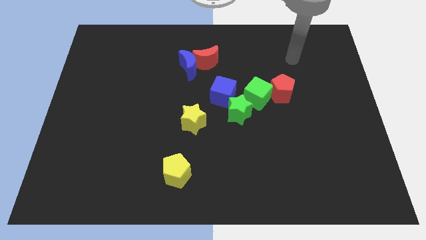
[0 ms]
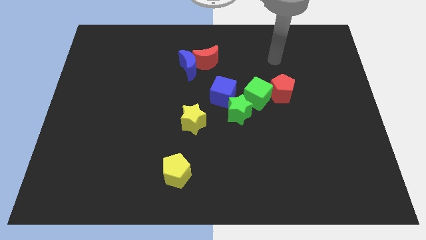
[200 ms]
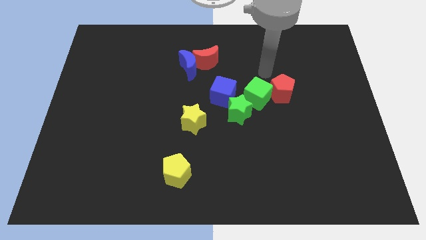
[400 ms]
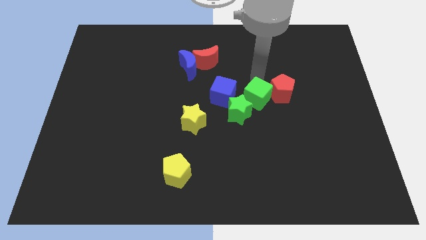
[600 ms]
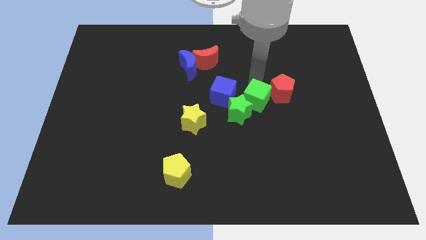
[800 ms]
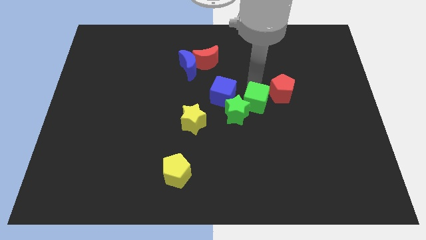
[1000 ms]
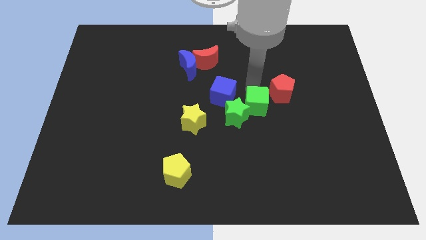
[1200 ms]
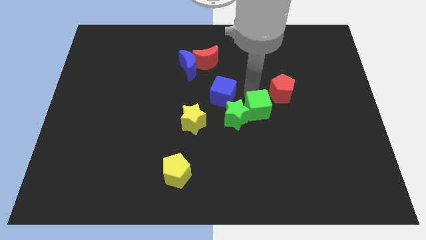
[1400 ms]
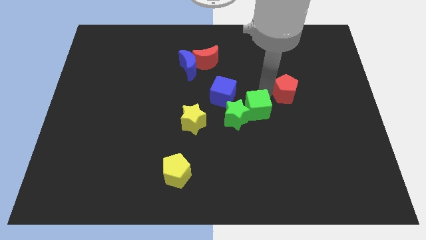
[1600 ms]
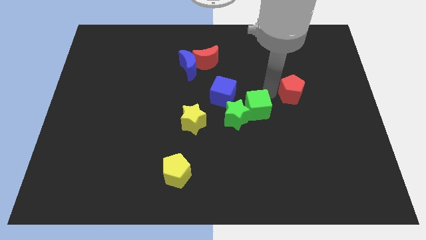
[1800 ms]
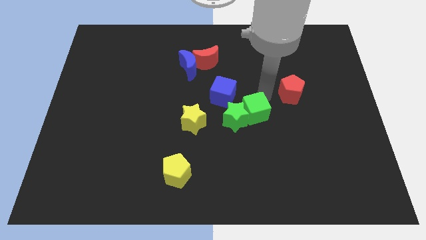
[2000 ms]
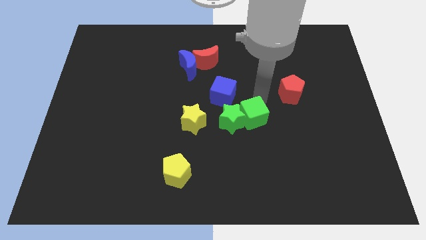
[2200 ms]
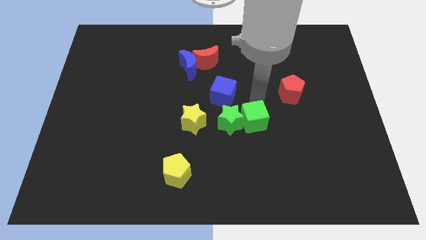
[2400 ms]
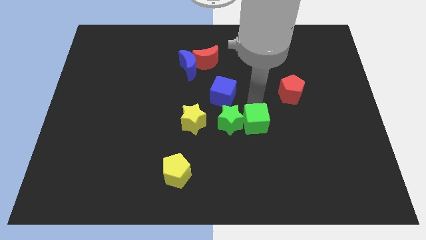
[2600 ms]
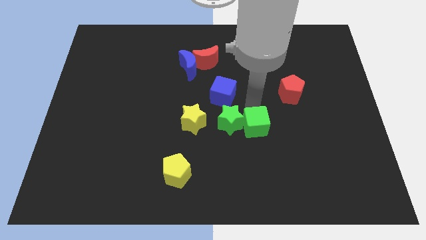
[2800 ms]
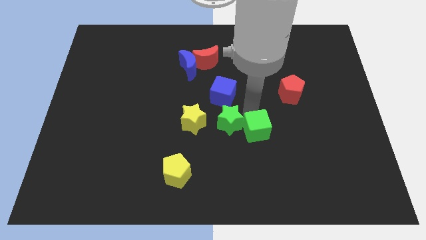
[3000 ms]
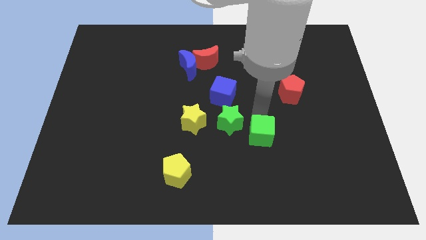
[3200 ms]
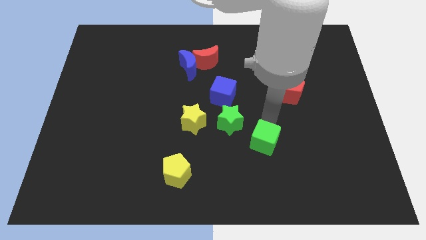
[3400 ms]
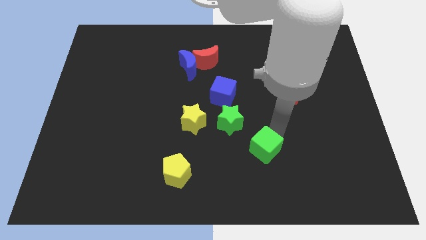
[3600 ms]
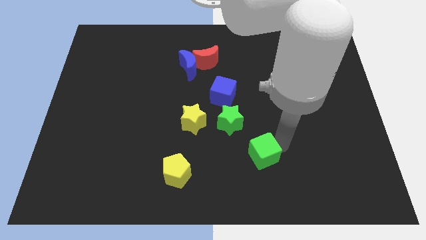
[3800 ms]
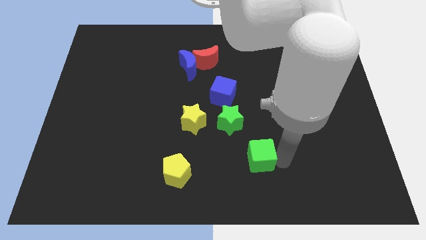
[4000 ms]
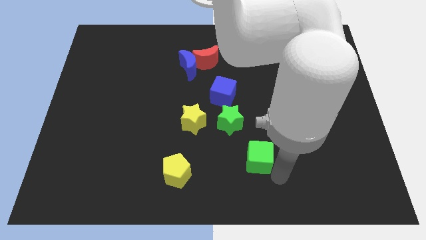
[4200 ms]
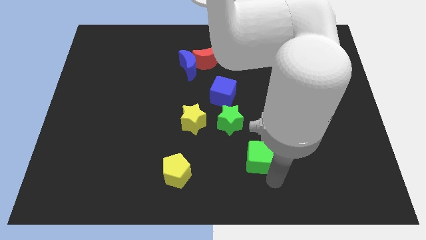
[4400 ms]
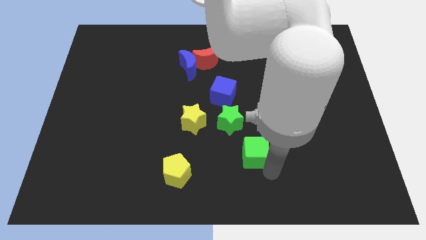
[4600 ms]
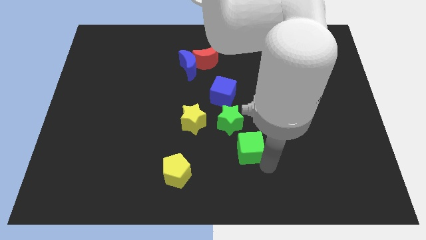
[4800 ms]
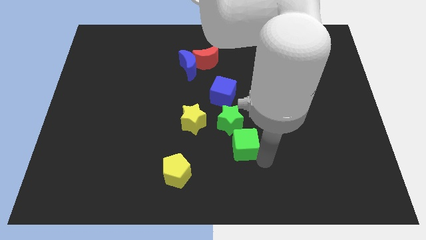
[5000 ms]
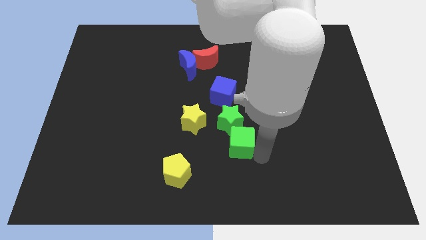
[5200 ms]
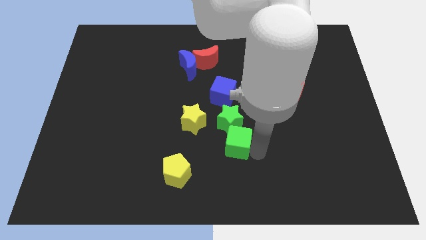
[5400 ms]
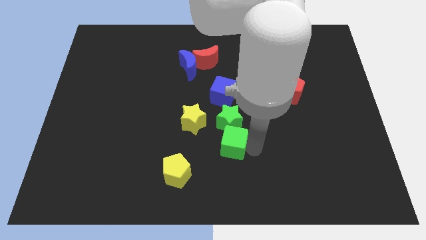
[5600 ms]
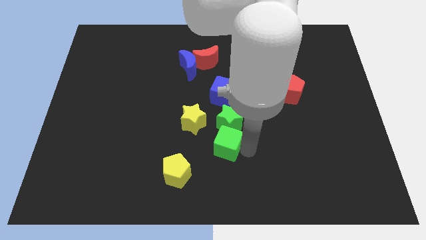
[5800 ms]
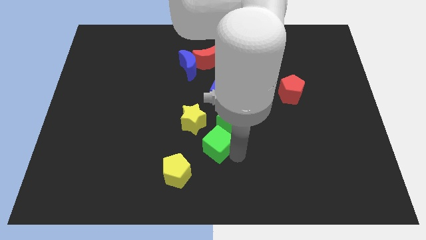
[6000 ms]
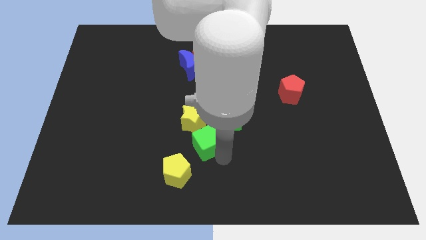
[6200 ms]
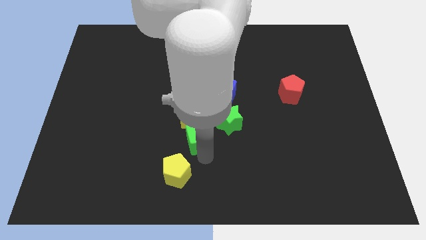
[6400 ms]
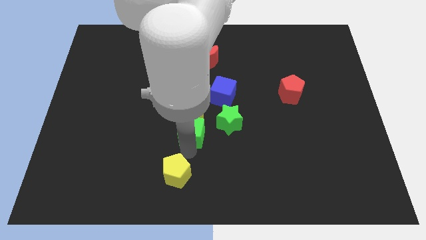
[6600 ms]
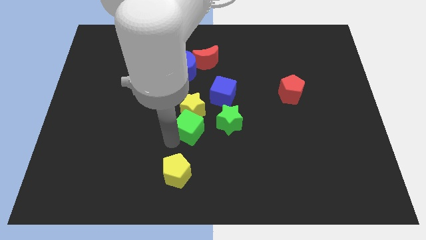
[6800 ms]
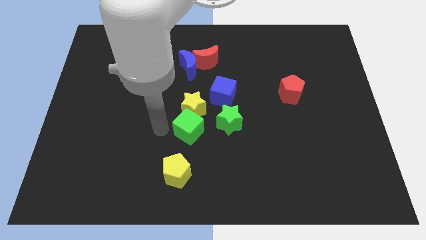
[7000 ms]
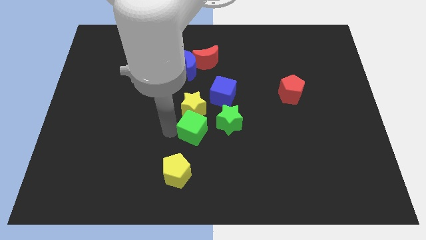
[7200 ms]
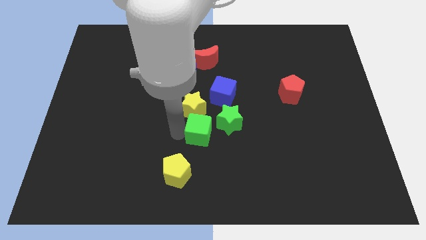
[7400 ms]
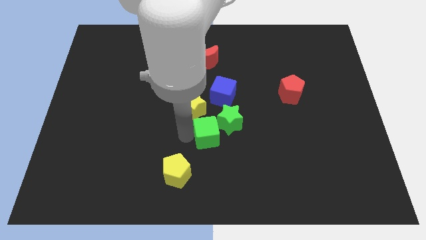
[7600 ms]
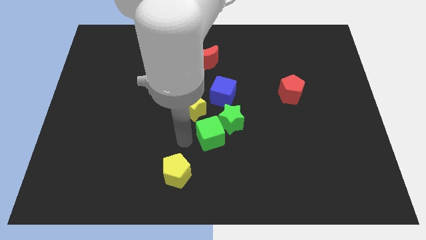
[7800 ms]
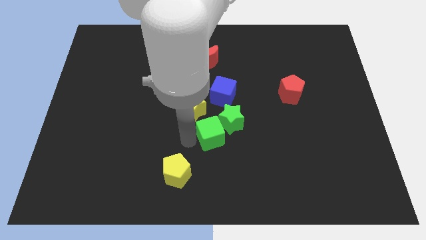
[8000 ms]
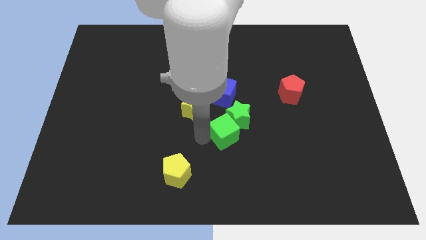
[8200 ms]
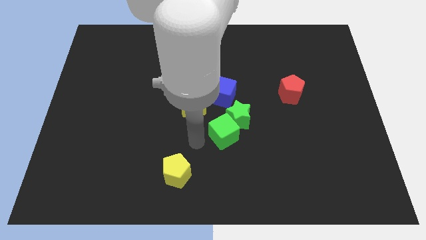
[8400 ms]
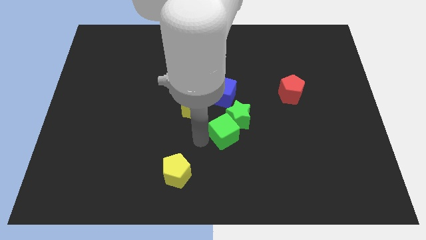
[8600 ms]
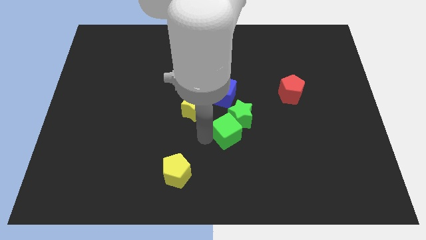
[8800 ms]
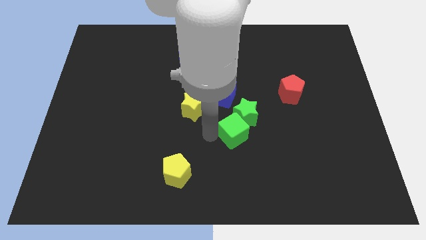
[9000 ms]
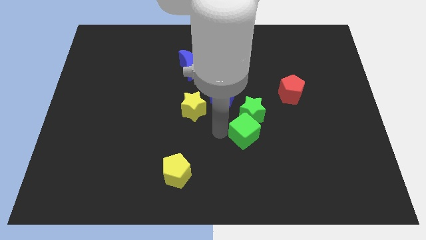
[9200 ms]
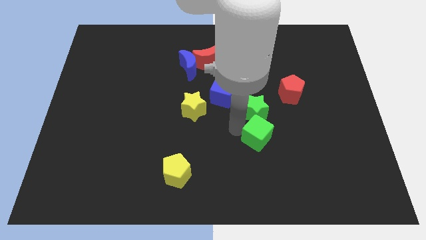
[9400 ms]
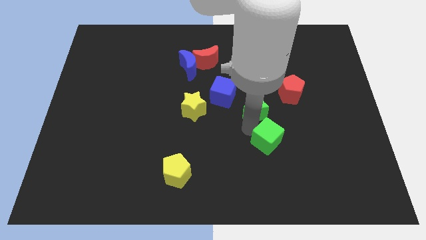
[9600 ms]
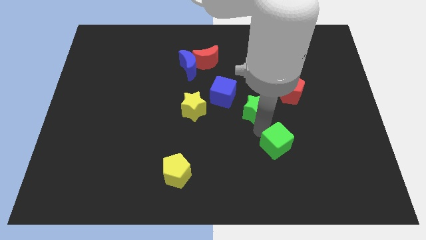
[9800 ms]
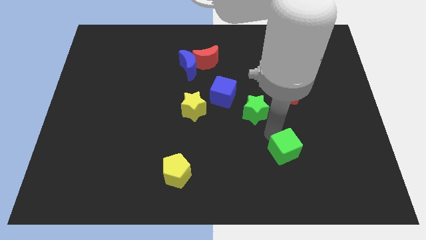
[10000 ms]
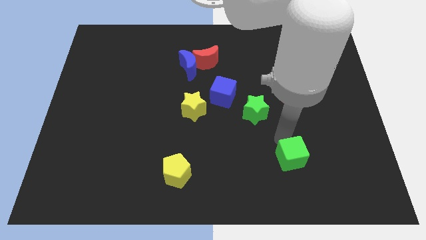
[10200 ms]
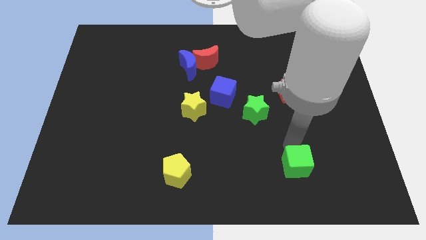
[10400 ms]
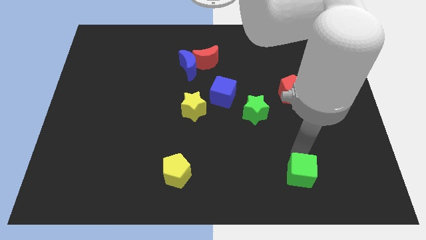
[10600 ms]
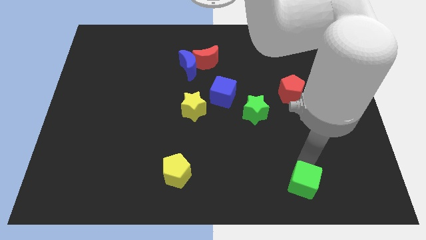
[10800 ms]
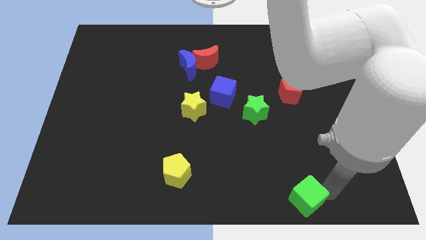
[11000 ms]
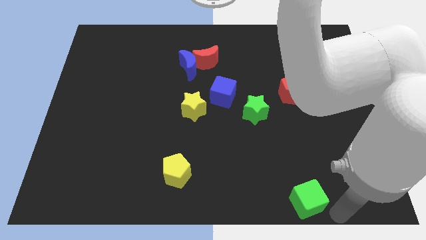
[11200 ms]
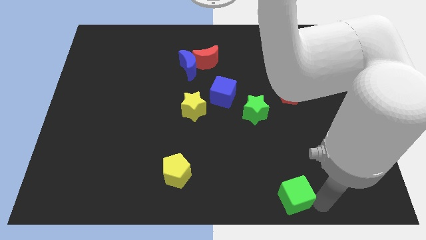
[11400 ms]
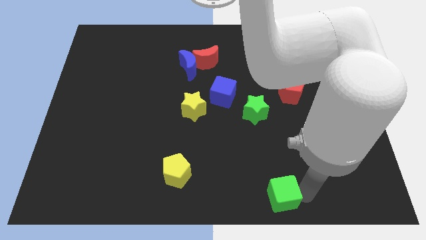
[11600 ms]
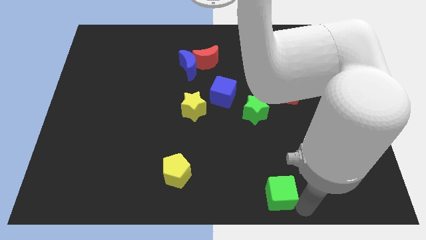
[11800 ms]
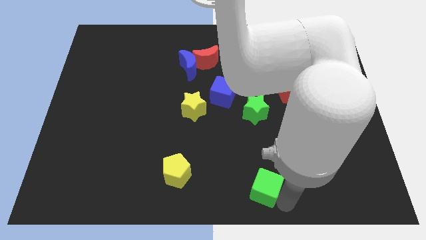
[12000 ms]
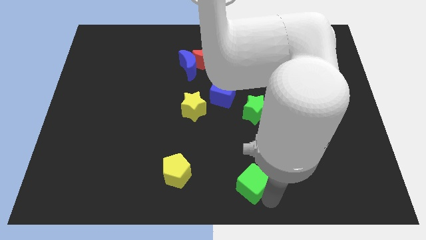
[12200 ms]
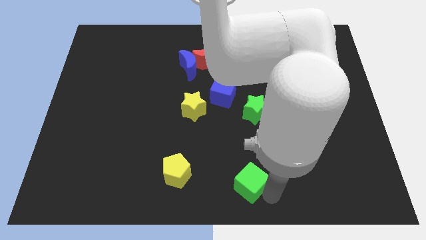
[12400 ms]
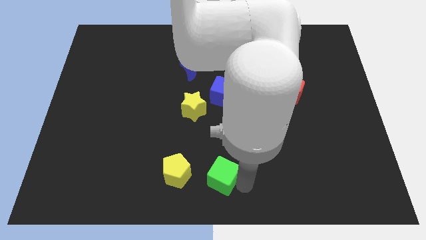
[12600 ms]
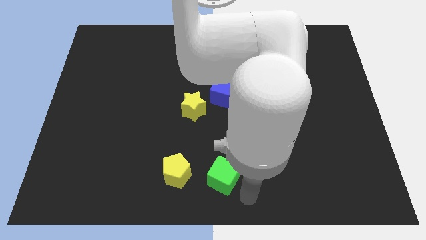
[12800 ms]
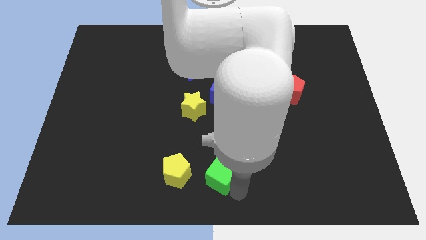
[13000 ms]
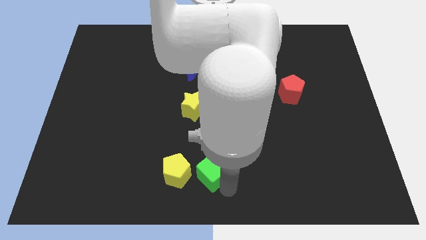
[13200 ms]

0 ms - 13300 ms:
push the green cube down and then to the left

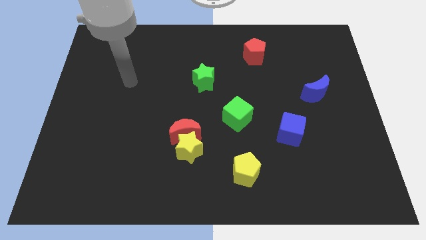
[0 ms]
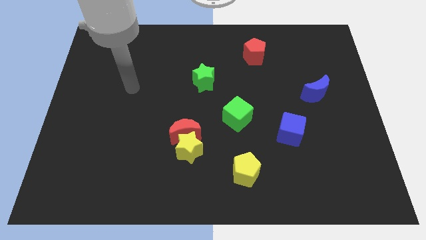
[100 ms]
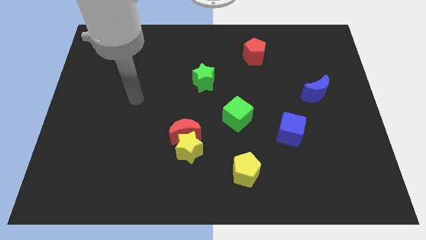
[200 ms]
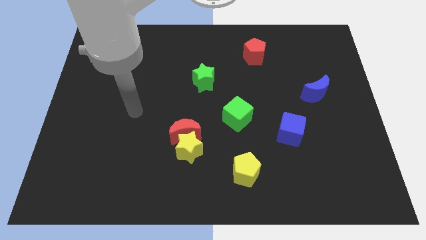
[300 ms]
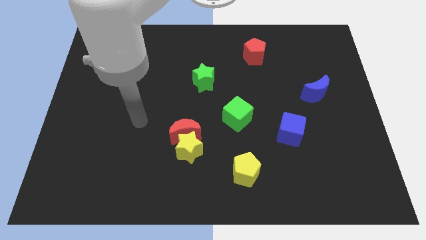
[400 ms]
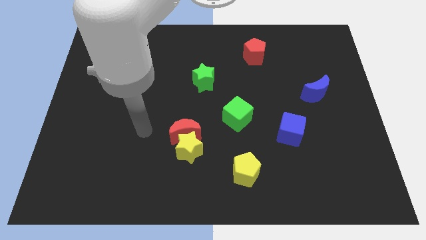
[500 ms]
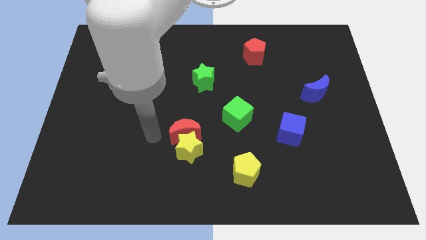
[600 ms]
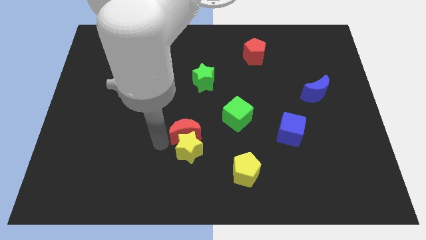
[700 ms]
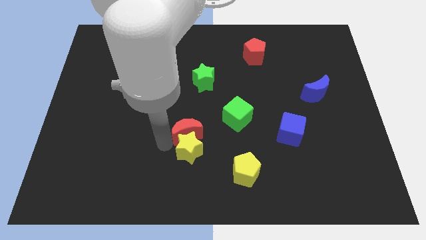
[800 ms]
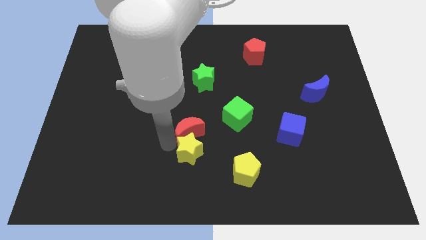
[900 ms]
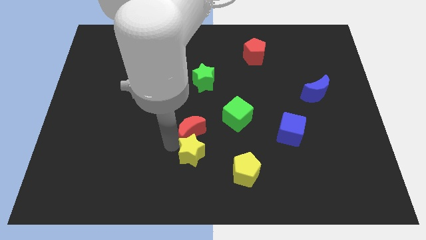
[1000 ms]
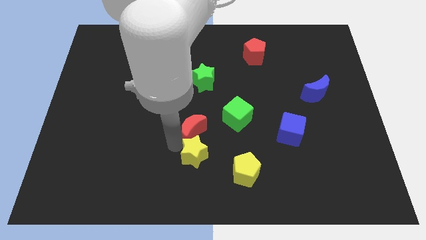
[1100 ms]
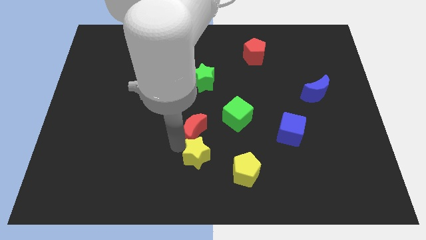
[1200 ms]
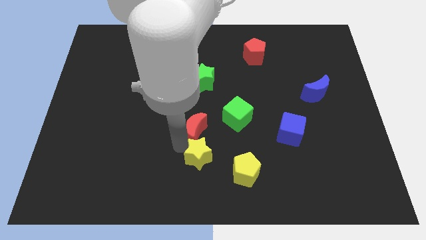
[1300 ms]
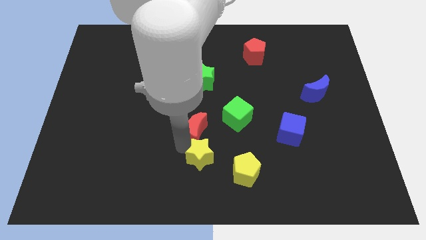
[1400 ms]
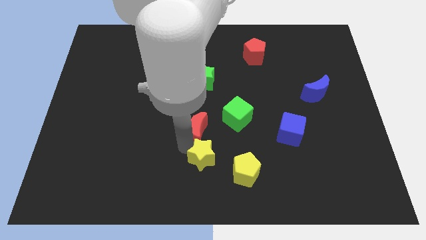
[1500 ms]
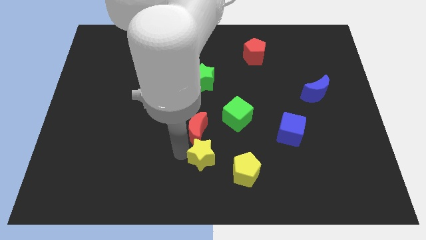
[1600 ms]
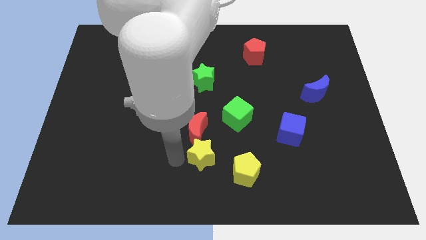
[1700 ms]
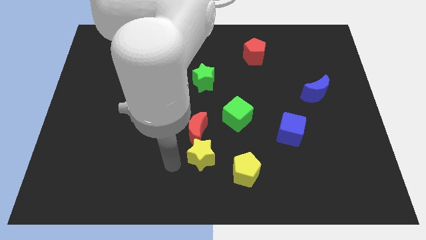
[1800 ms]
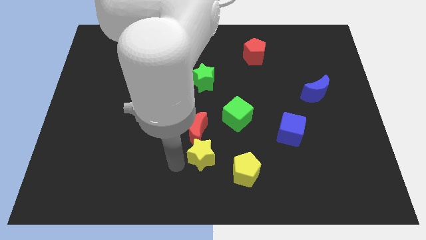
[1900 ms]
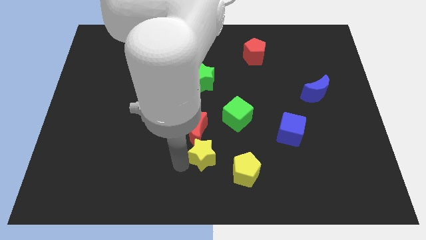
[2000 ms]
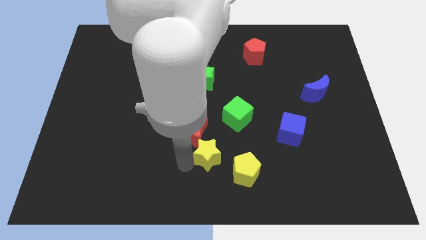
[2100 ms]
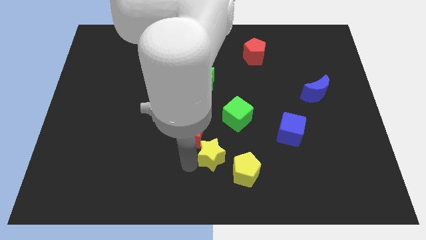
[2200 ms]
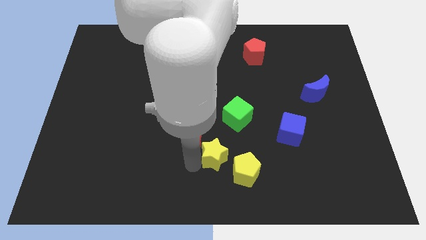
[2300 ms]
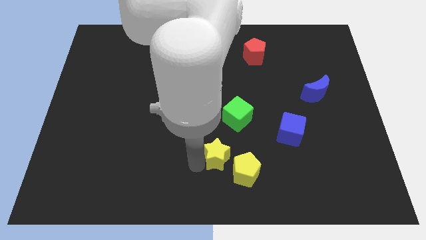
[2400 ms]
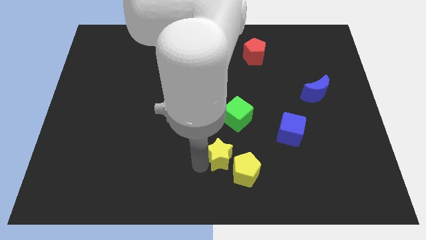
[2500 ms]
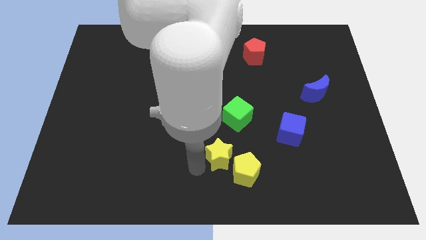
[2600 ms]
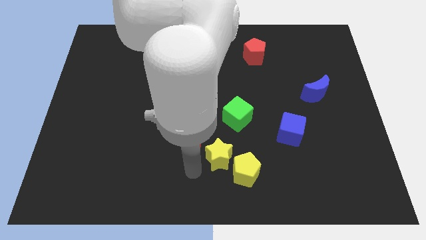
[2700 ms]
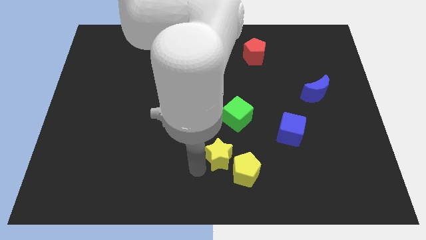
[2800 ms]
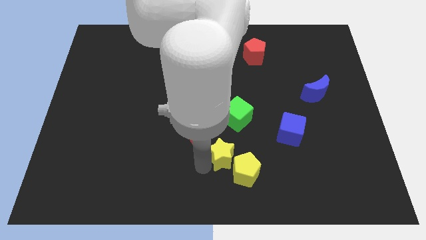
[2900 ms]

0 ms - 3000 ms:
move the yellow star a little to the right
